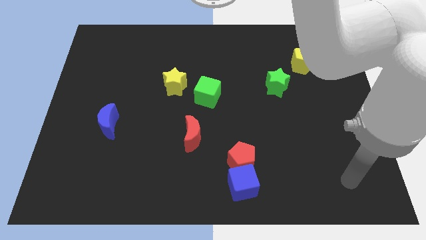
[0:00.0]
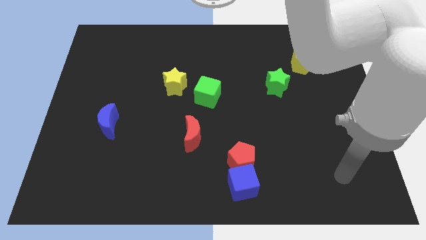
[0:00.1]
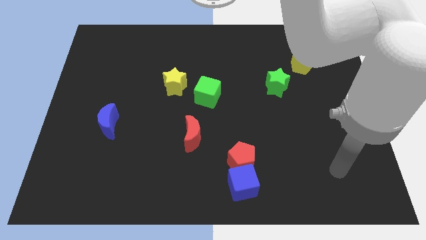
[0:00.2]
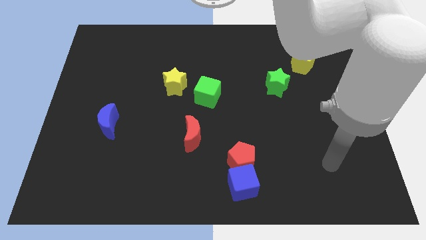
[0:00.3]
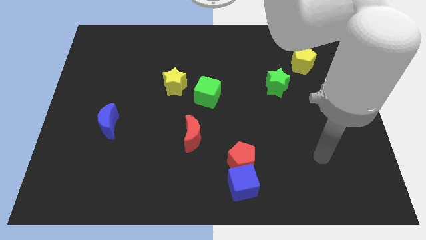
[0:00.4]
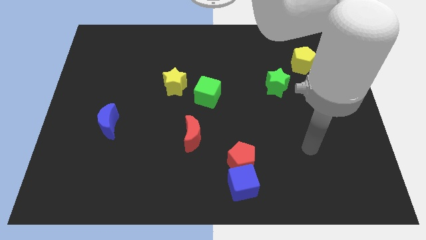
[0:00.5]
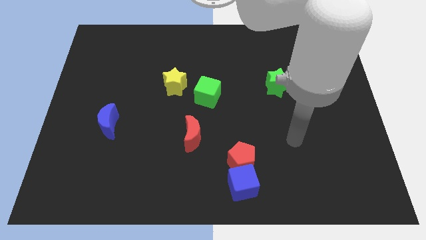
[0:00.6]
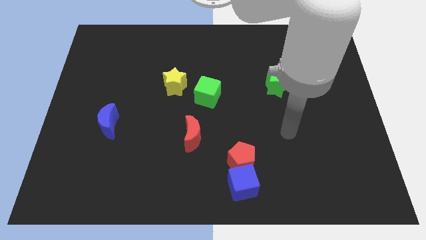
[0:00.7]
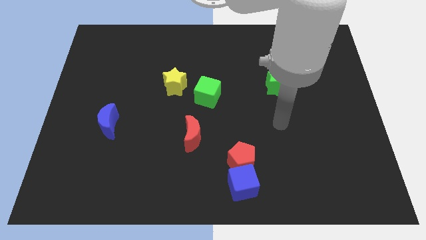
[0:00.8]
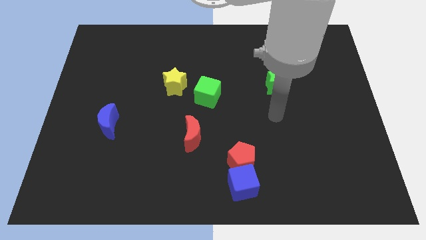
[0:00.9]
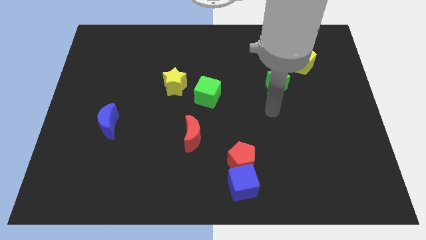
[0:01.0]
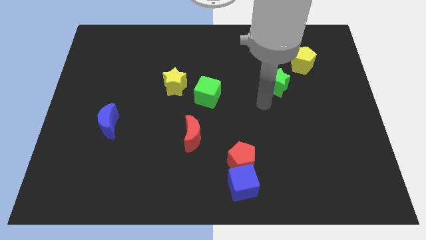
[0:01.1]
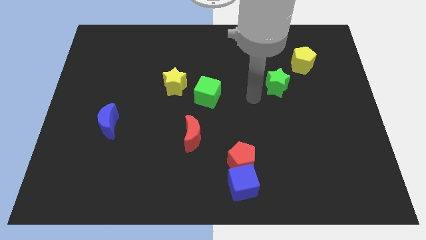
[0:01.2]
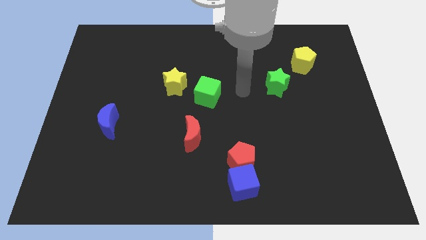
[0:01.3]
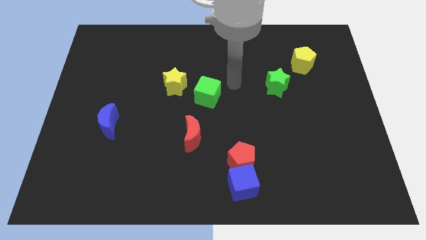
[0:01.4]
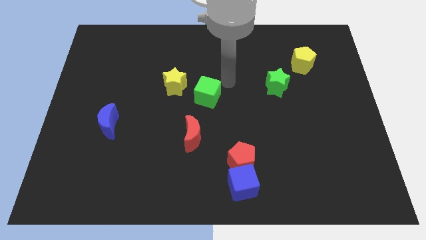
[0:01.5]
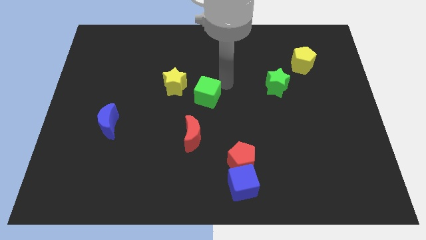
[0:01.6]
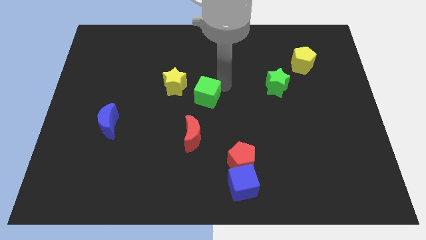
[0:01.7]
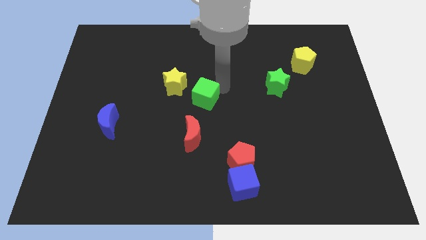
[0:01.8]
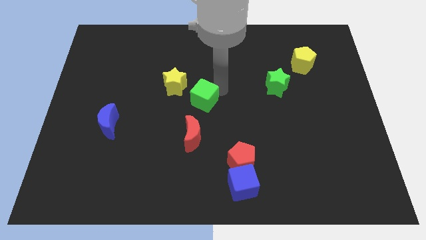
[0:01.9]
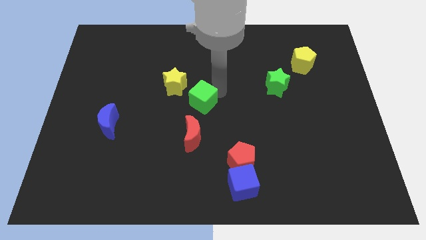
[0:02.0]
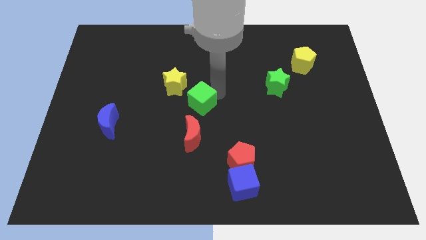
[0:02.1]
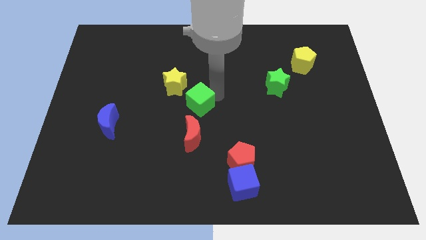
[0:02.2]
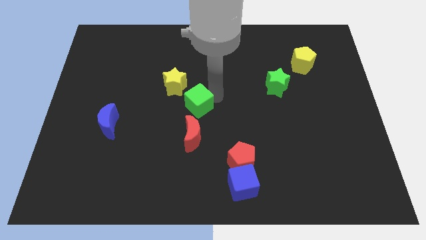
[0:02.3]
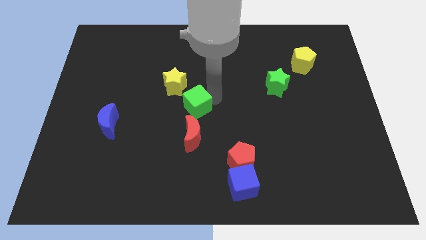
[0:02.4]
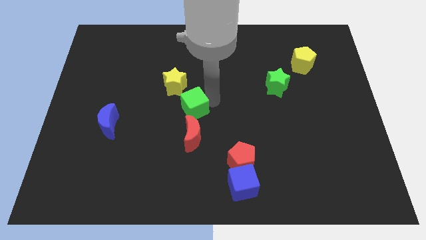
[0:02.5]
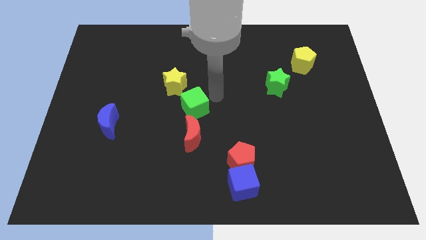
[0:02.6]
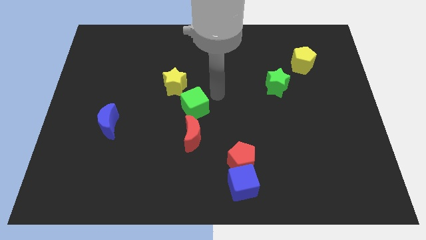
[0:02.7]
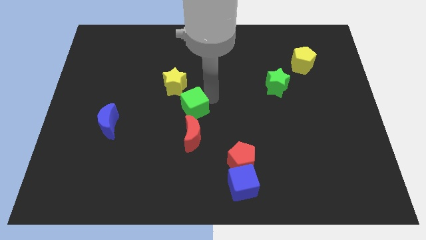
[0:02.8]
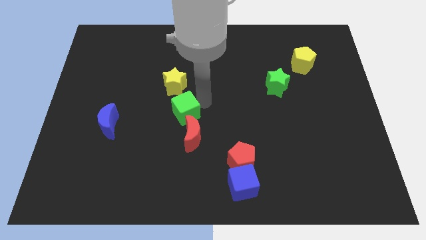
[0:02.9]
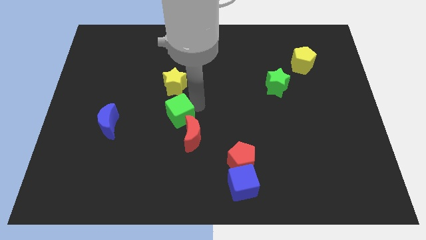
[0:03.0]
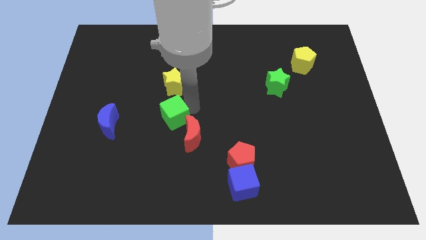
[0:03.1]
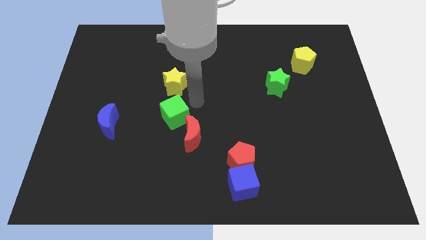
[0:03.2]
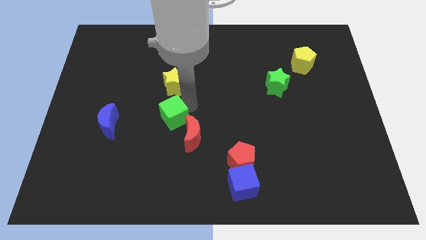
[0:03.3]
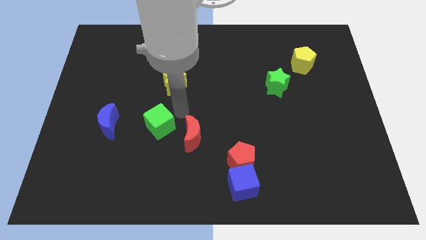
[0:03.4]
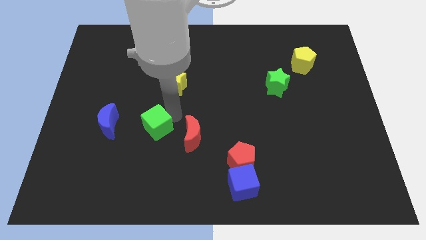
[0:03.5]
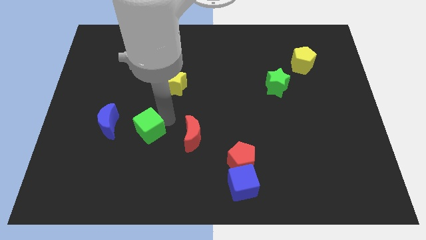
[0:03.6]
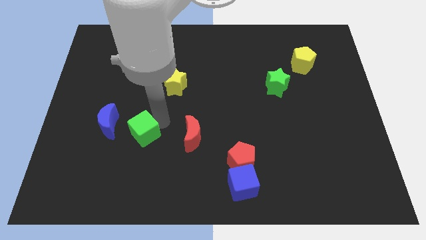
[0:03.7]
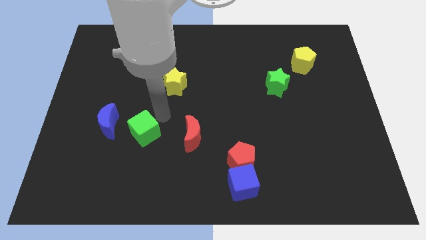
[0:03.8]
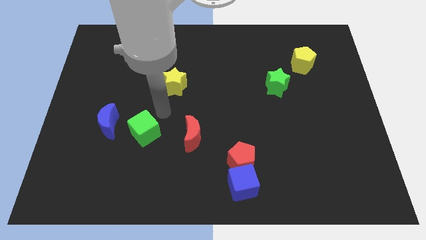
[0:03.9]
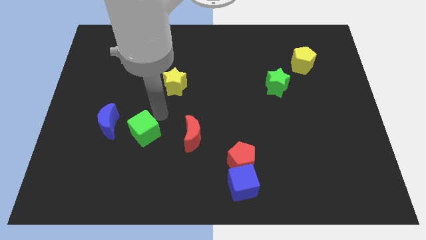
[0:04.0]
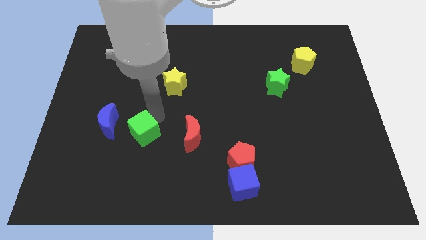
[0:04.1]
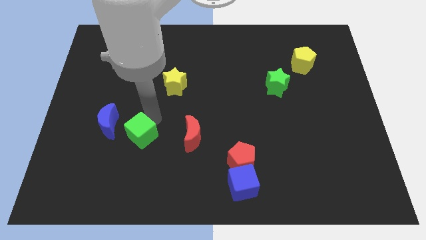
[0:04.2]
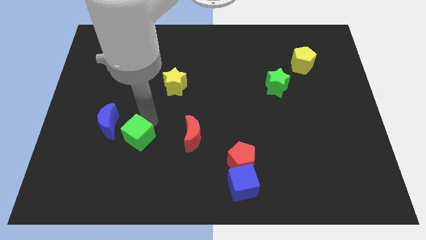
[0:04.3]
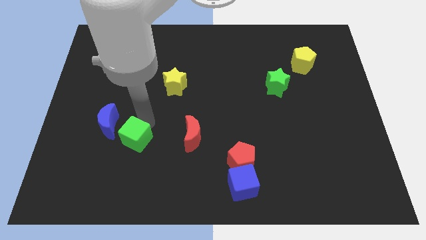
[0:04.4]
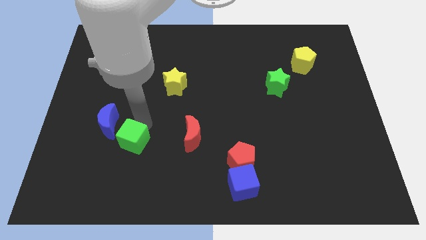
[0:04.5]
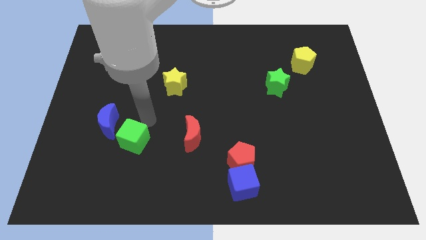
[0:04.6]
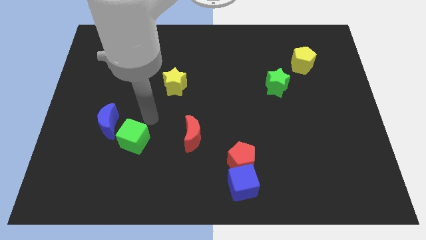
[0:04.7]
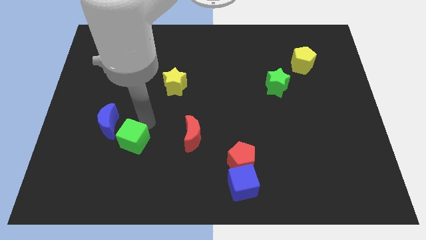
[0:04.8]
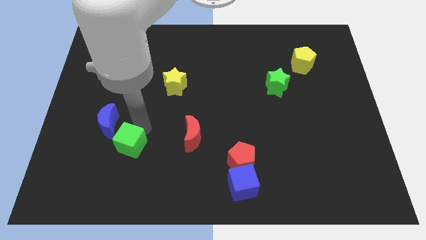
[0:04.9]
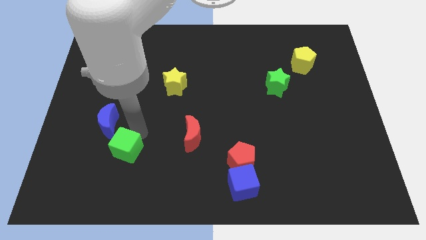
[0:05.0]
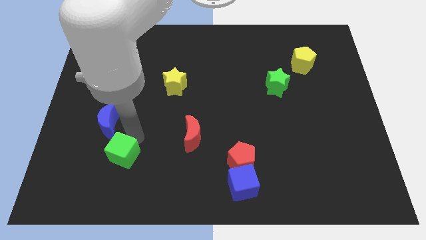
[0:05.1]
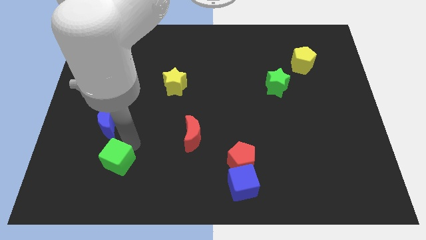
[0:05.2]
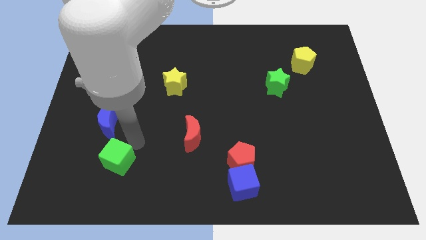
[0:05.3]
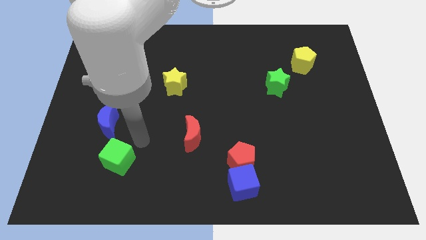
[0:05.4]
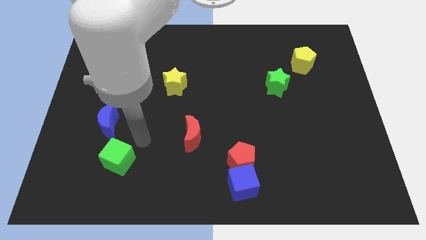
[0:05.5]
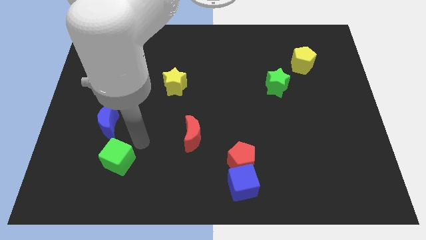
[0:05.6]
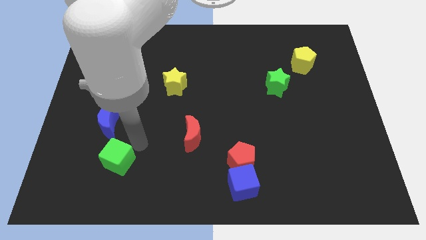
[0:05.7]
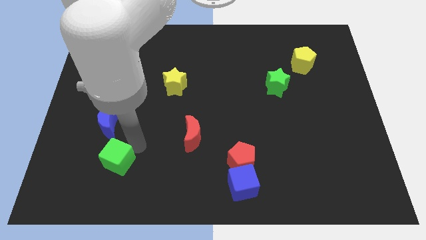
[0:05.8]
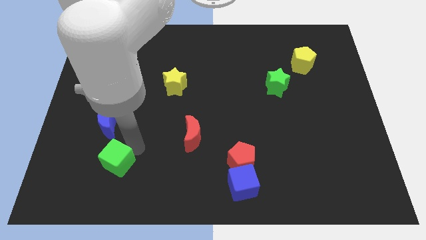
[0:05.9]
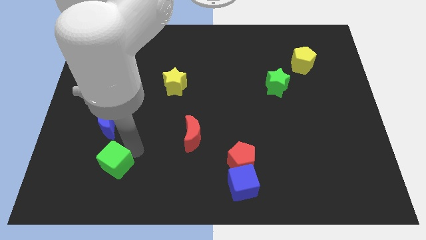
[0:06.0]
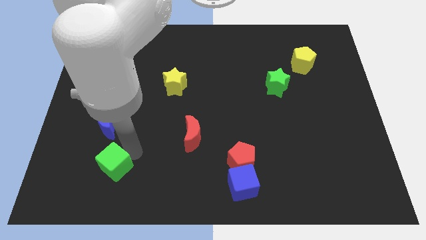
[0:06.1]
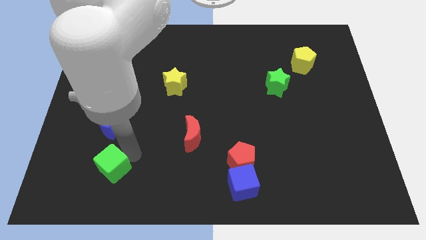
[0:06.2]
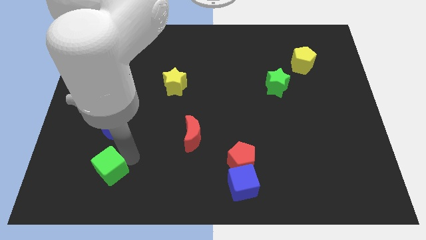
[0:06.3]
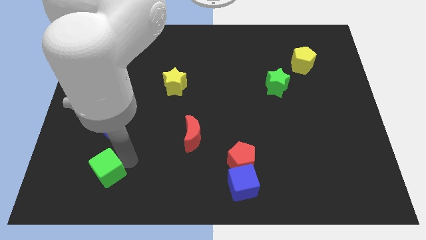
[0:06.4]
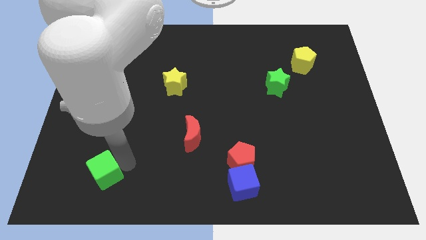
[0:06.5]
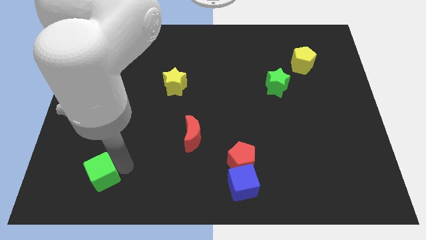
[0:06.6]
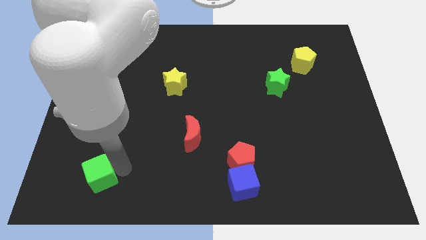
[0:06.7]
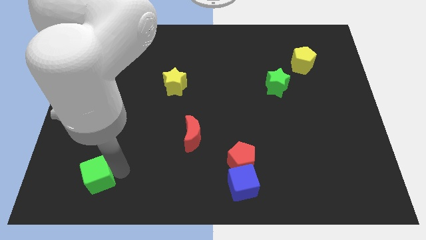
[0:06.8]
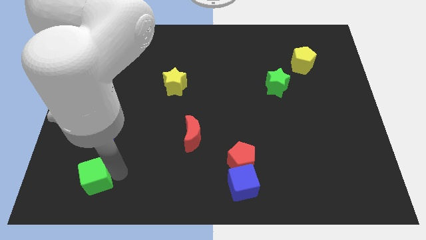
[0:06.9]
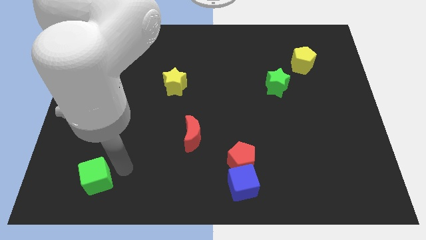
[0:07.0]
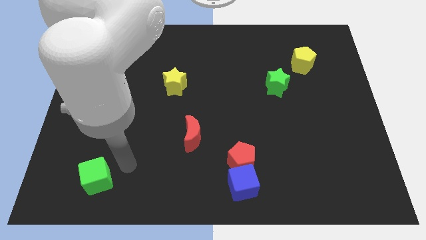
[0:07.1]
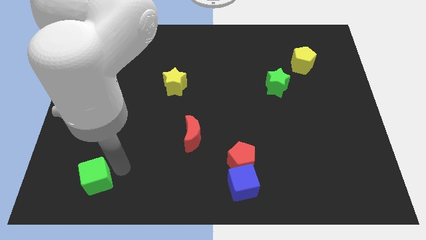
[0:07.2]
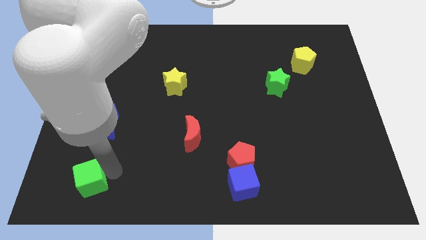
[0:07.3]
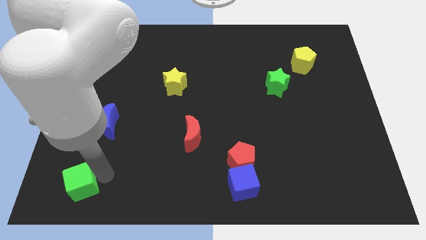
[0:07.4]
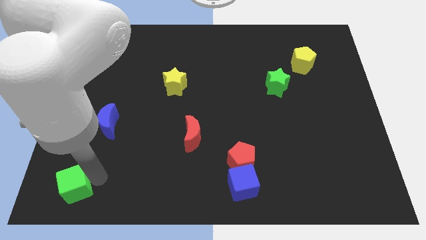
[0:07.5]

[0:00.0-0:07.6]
push the green cube to the lower left corner

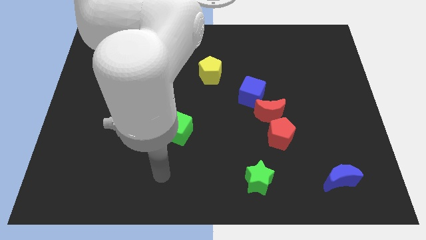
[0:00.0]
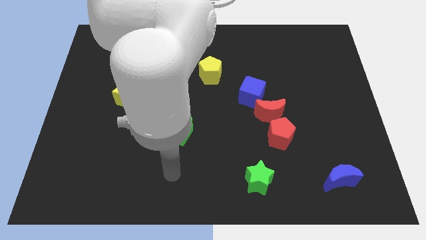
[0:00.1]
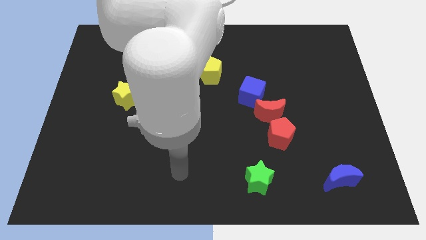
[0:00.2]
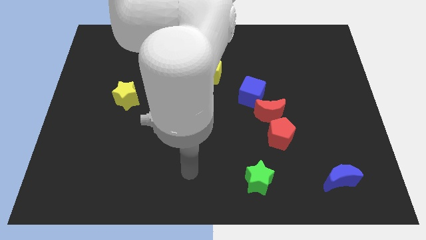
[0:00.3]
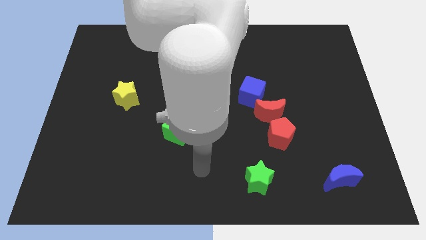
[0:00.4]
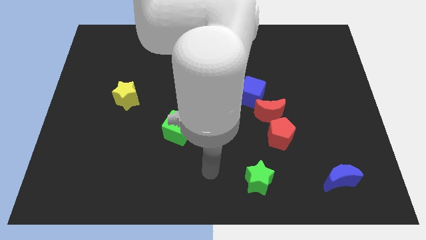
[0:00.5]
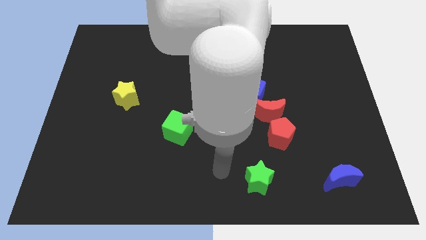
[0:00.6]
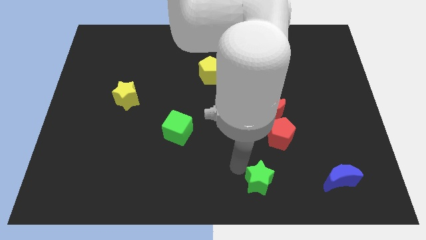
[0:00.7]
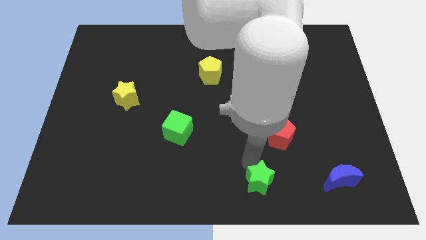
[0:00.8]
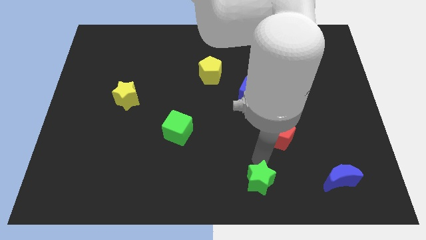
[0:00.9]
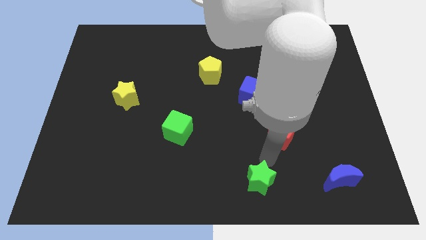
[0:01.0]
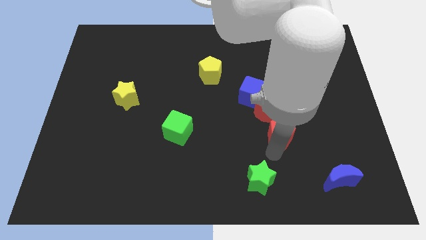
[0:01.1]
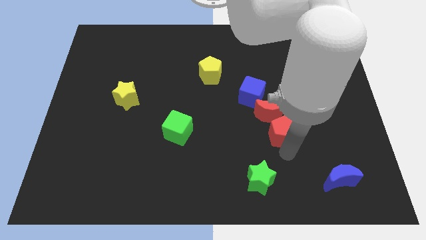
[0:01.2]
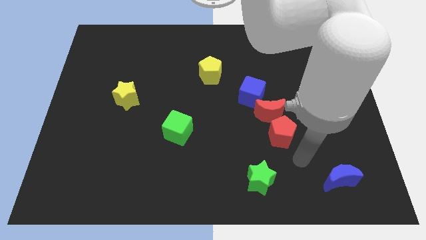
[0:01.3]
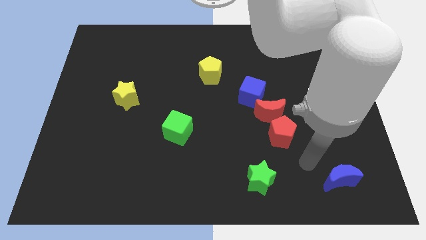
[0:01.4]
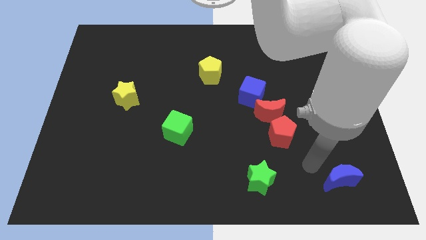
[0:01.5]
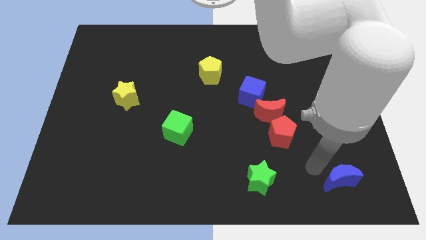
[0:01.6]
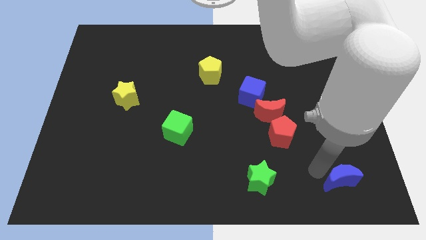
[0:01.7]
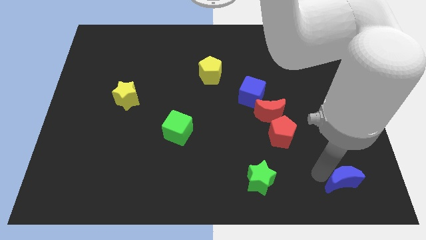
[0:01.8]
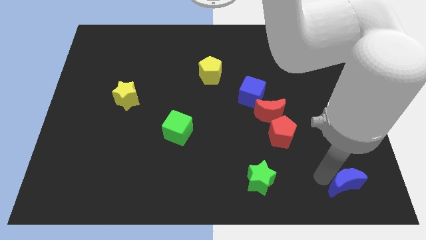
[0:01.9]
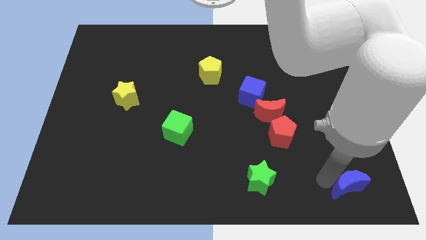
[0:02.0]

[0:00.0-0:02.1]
put the blue moon to the bottom right corner
